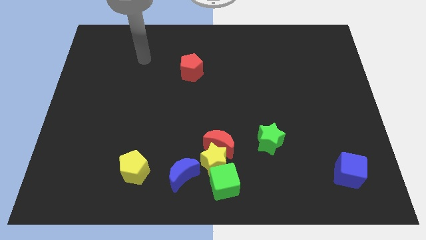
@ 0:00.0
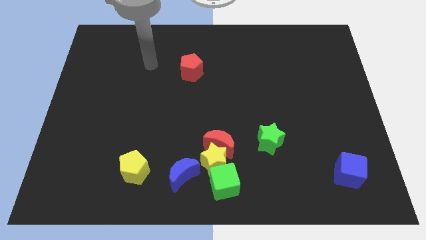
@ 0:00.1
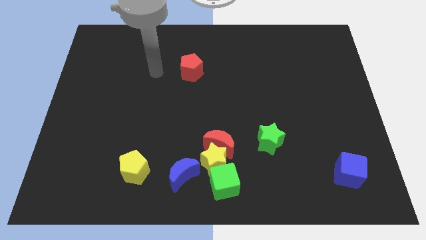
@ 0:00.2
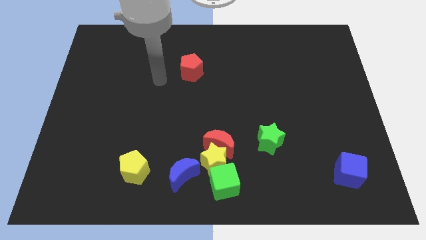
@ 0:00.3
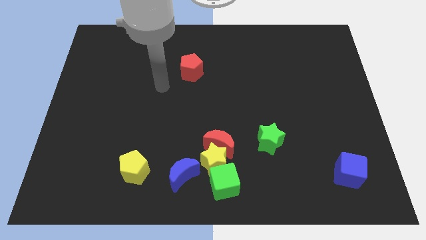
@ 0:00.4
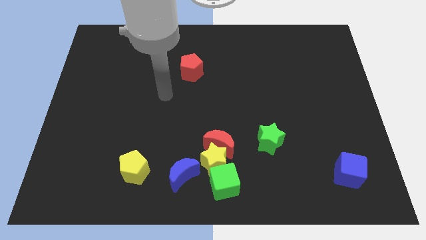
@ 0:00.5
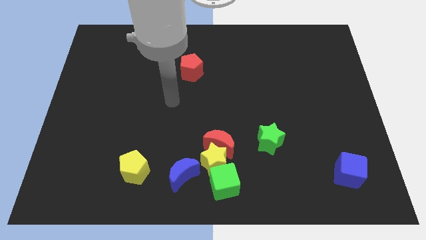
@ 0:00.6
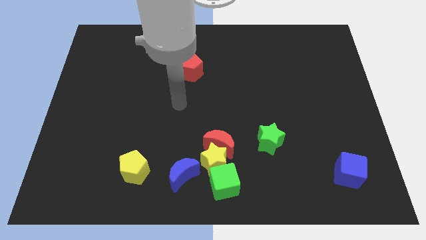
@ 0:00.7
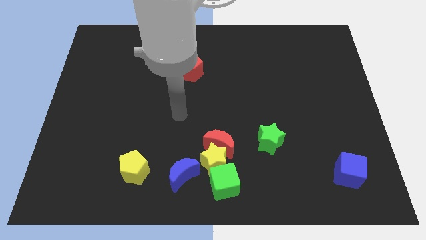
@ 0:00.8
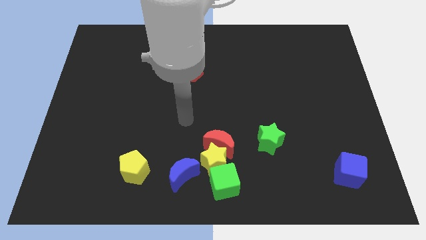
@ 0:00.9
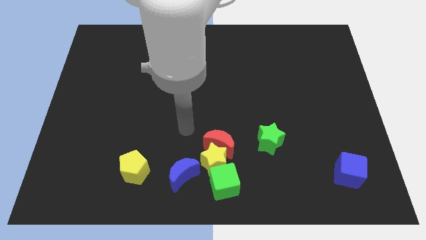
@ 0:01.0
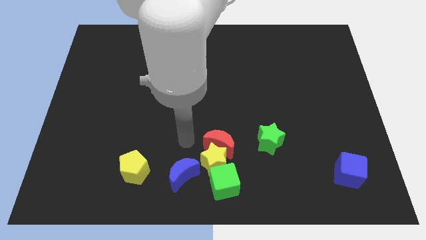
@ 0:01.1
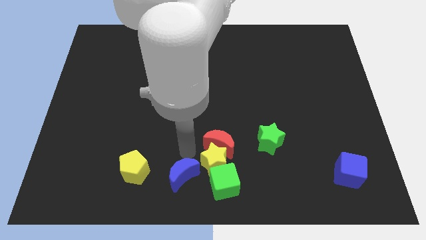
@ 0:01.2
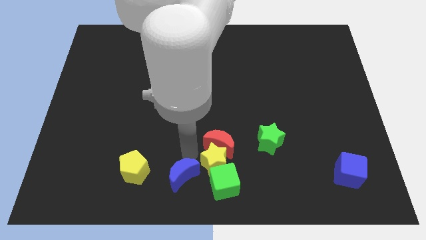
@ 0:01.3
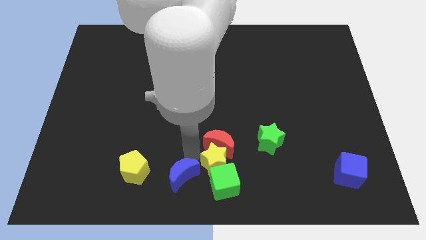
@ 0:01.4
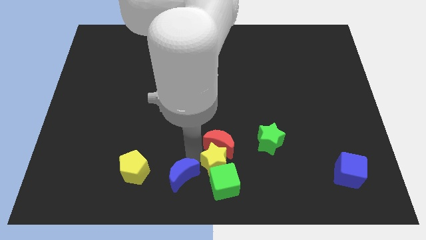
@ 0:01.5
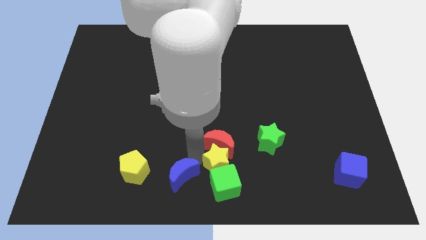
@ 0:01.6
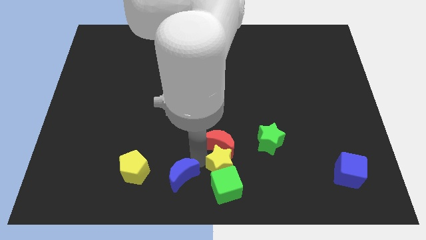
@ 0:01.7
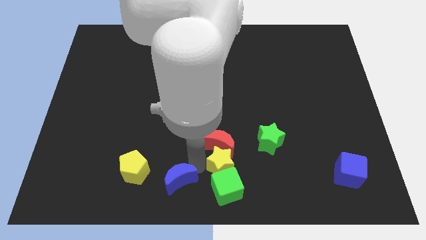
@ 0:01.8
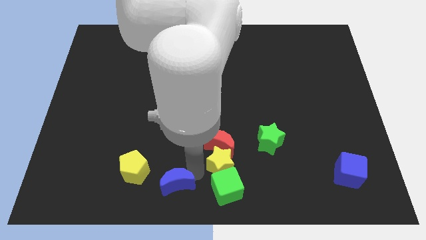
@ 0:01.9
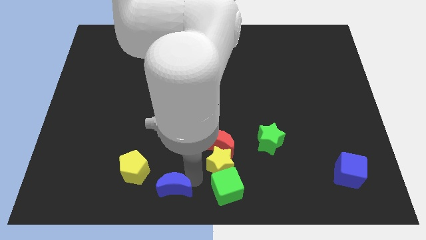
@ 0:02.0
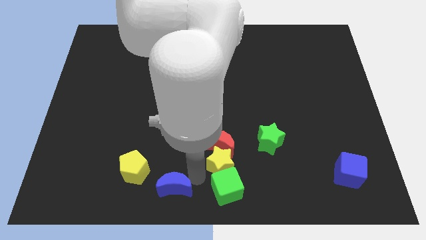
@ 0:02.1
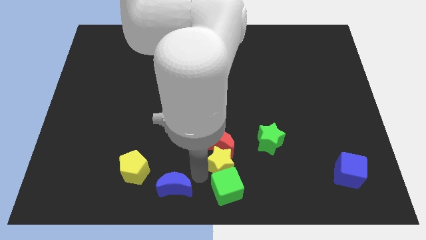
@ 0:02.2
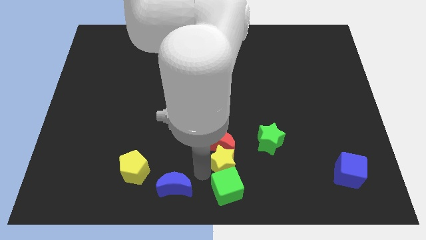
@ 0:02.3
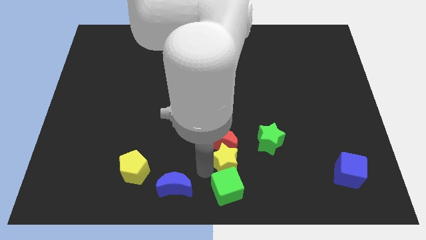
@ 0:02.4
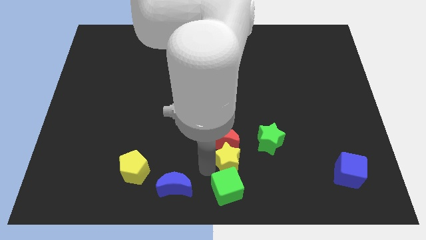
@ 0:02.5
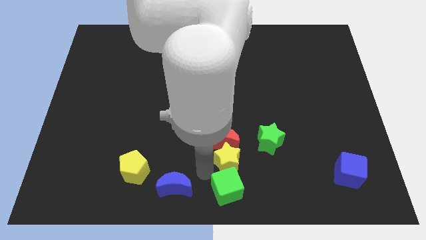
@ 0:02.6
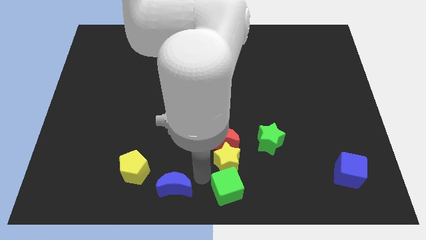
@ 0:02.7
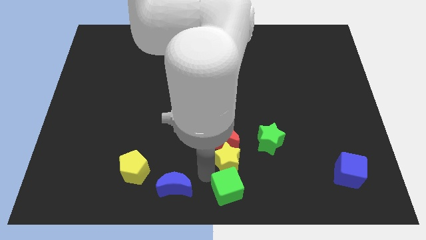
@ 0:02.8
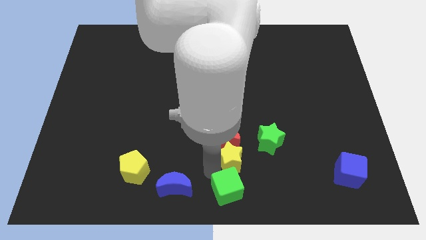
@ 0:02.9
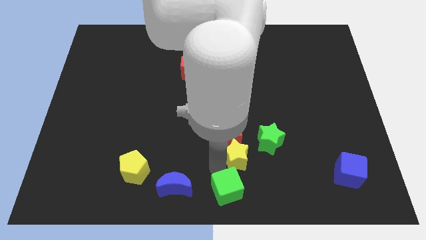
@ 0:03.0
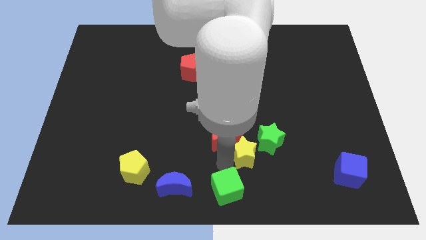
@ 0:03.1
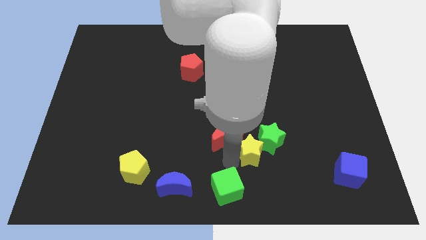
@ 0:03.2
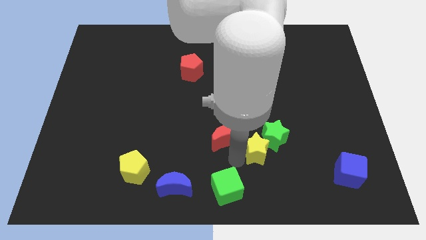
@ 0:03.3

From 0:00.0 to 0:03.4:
separate the yellow star from the red moon, green cube, and blue moon

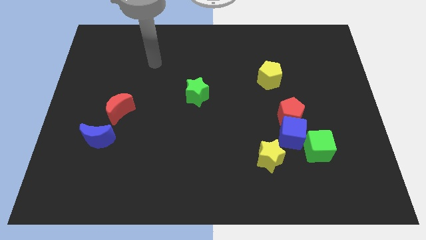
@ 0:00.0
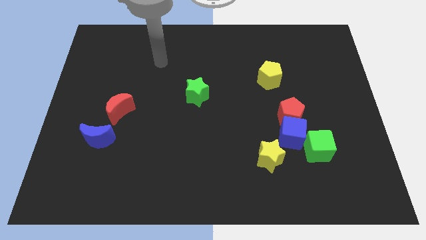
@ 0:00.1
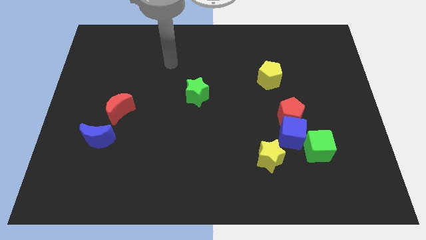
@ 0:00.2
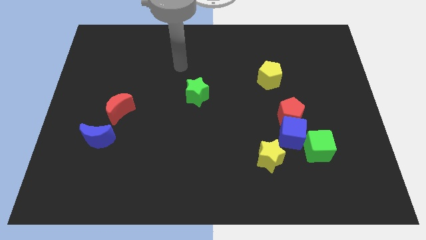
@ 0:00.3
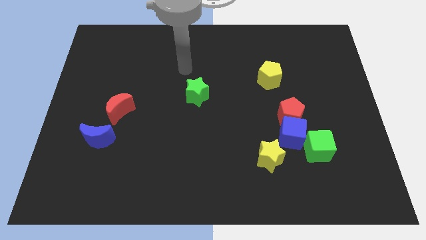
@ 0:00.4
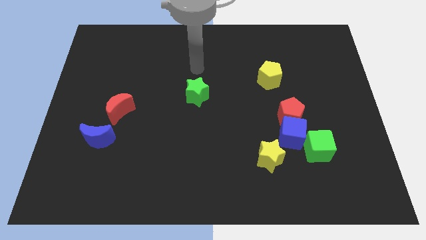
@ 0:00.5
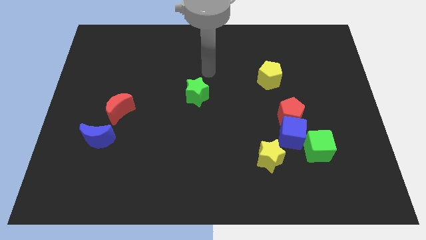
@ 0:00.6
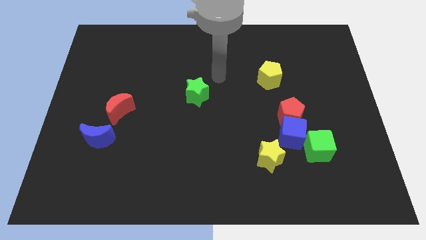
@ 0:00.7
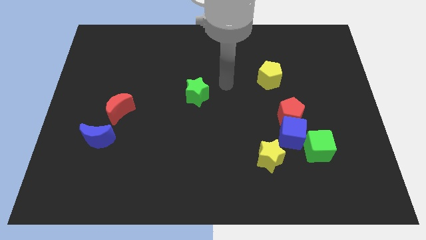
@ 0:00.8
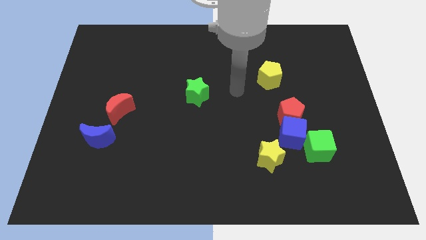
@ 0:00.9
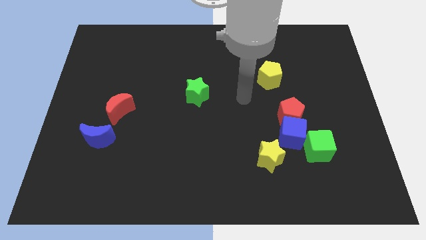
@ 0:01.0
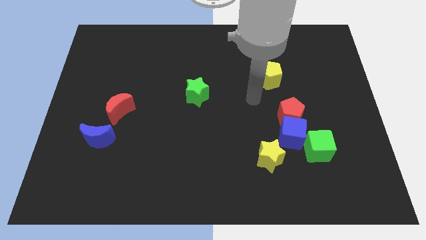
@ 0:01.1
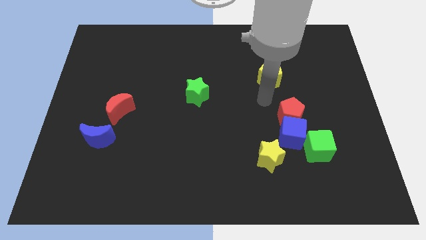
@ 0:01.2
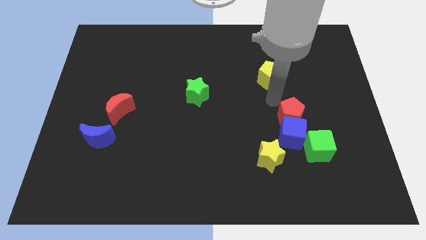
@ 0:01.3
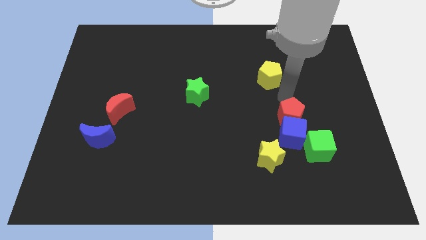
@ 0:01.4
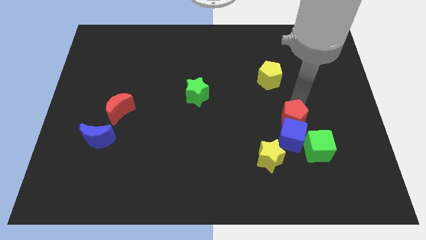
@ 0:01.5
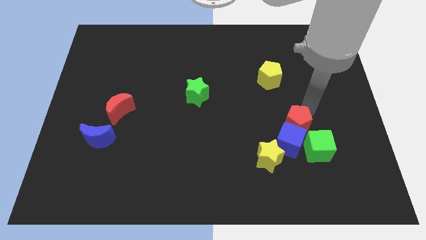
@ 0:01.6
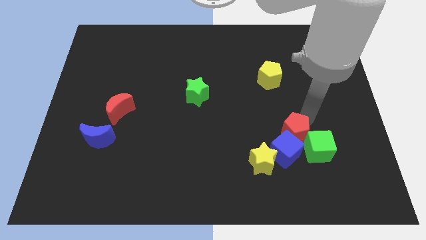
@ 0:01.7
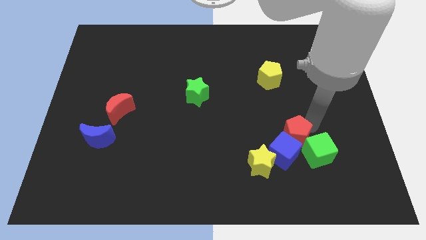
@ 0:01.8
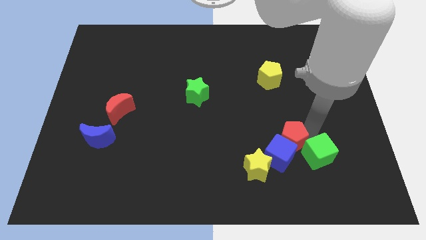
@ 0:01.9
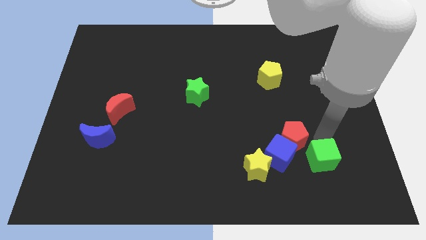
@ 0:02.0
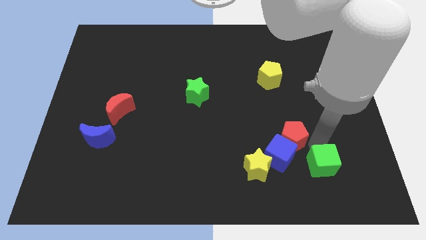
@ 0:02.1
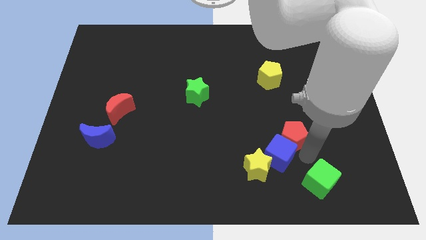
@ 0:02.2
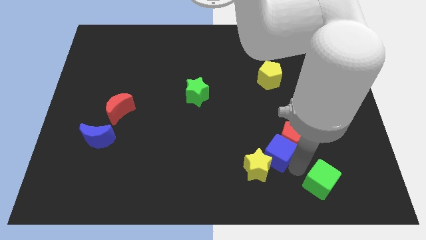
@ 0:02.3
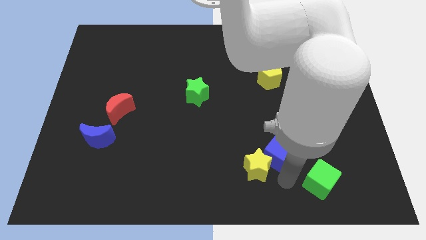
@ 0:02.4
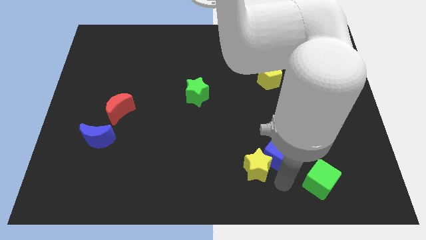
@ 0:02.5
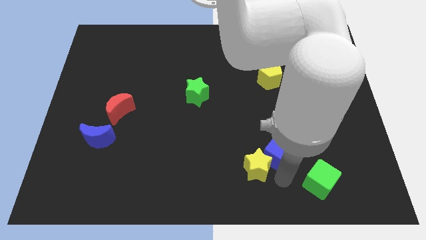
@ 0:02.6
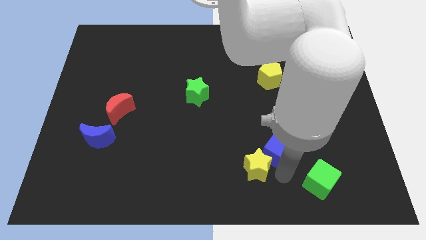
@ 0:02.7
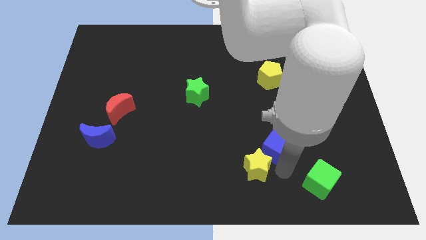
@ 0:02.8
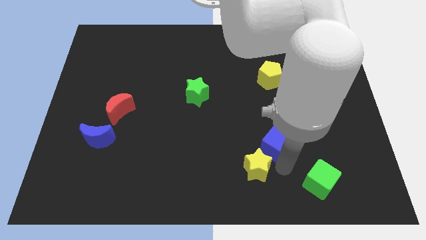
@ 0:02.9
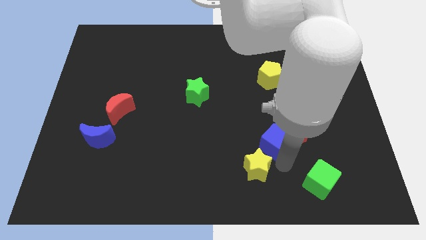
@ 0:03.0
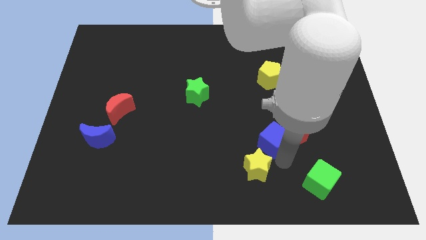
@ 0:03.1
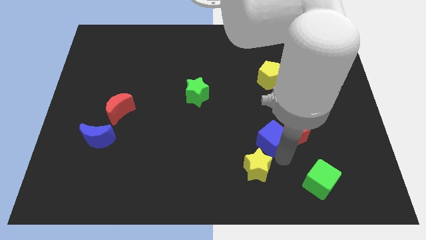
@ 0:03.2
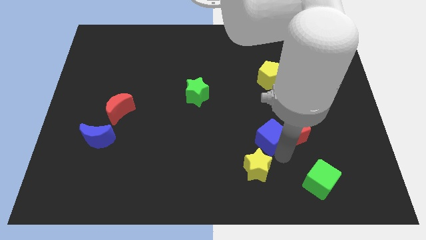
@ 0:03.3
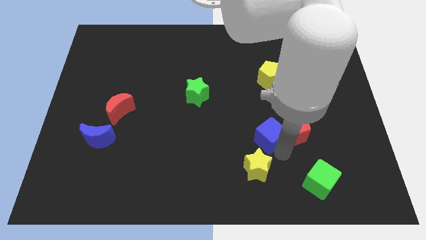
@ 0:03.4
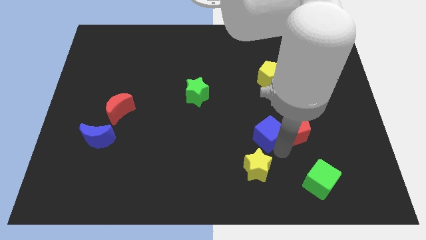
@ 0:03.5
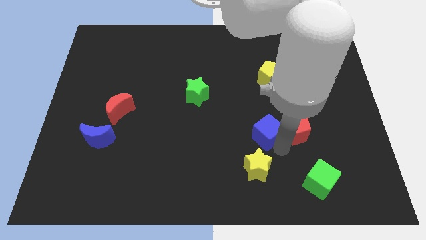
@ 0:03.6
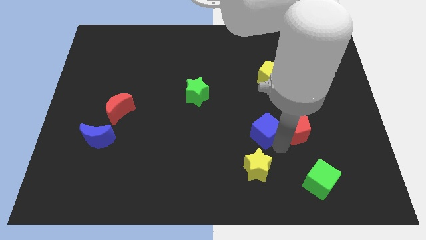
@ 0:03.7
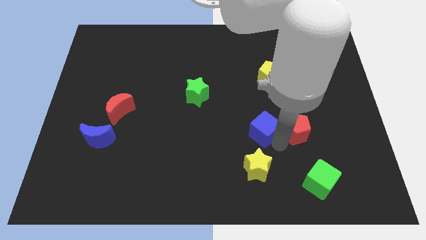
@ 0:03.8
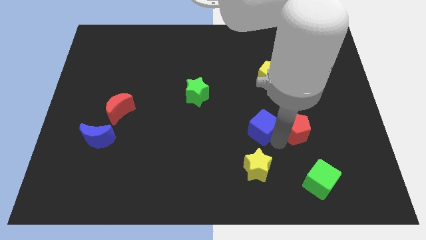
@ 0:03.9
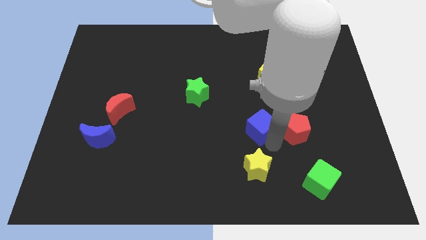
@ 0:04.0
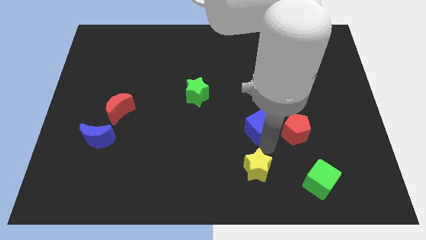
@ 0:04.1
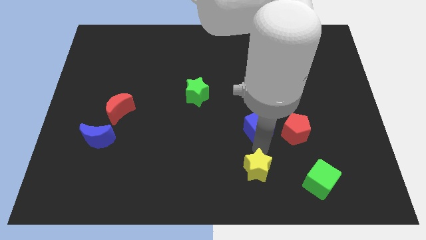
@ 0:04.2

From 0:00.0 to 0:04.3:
separate the blue cube from the red pentagon, green cube, and yellow star

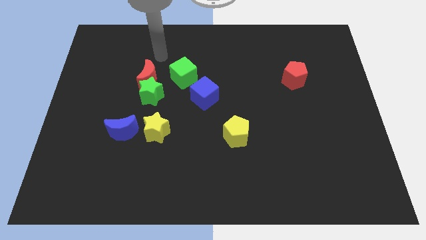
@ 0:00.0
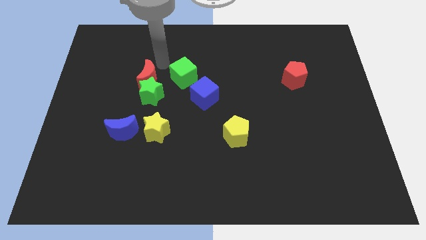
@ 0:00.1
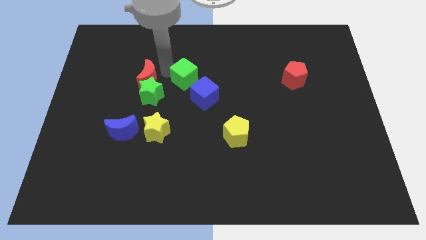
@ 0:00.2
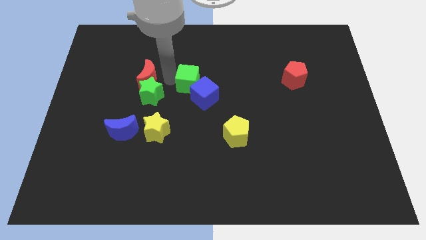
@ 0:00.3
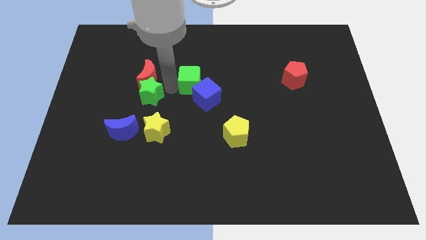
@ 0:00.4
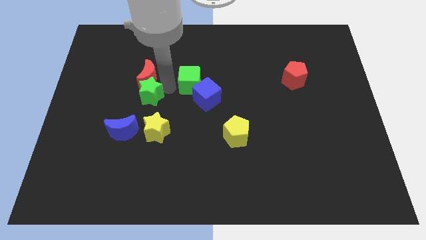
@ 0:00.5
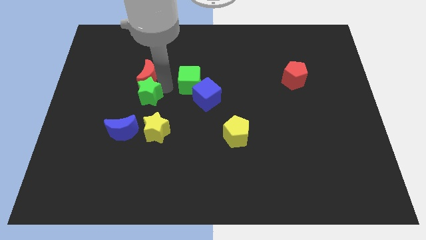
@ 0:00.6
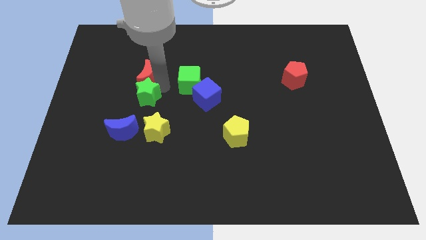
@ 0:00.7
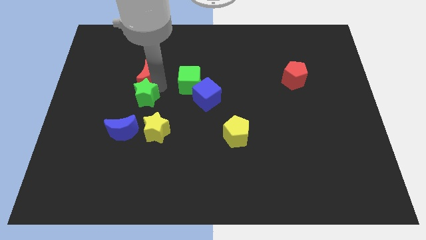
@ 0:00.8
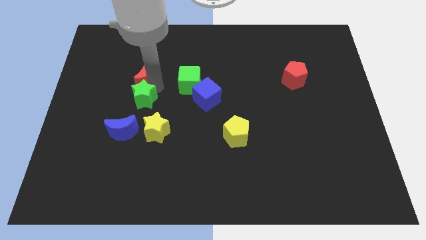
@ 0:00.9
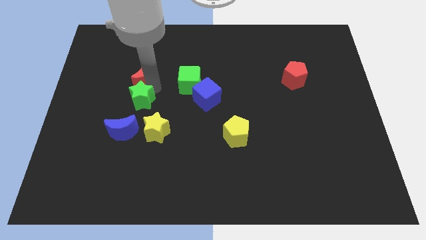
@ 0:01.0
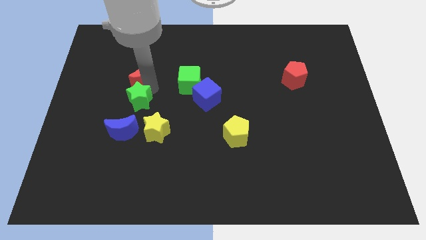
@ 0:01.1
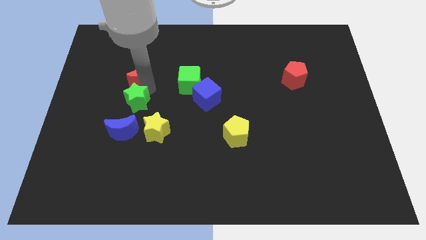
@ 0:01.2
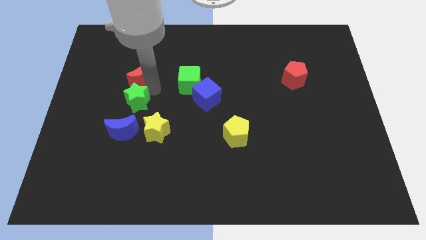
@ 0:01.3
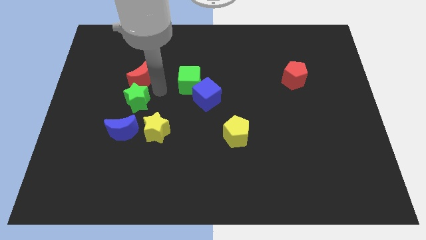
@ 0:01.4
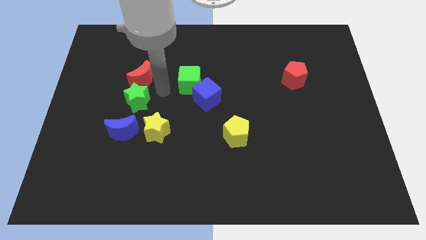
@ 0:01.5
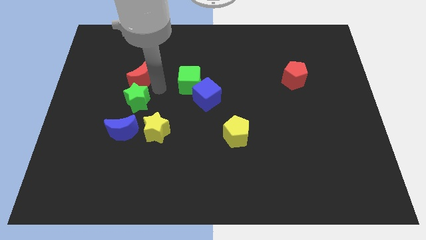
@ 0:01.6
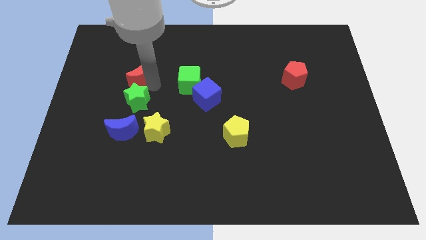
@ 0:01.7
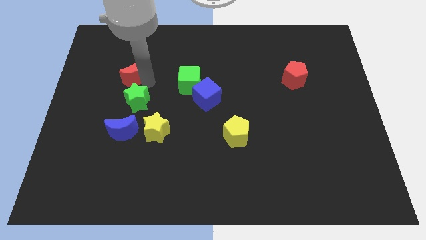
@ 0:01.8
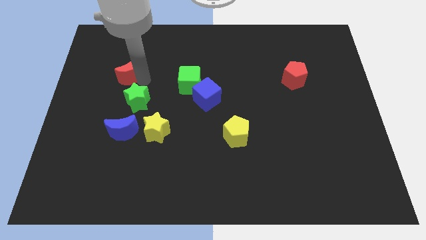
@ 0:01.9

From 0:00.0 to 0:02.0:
move the red moon away from the green star and green cube
